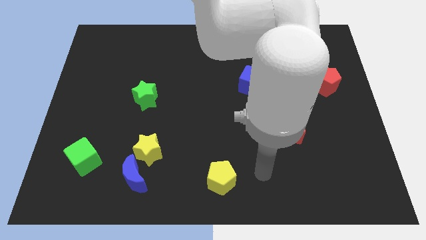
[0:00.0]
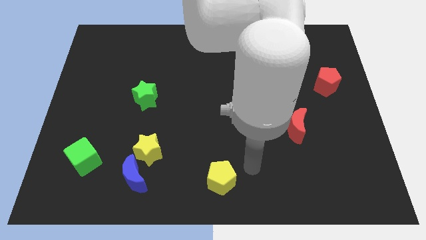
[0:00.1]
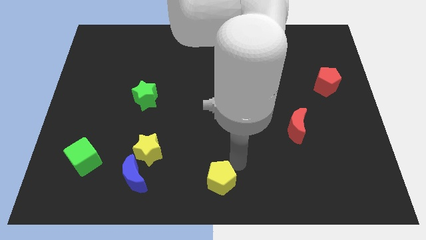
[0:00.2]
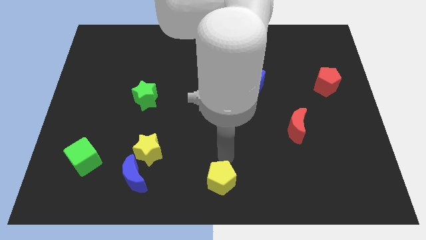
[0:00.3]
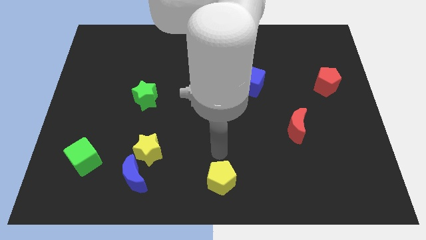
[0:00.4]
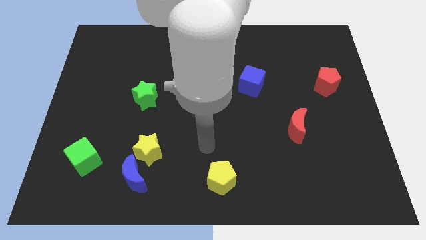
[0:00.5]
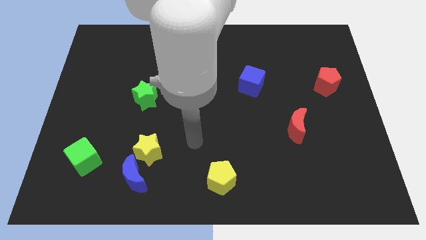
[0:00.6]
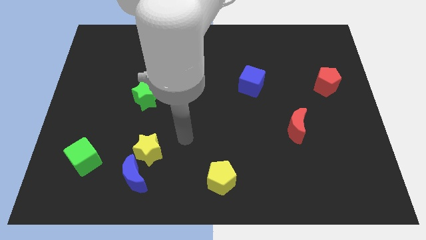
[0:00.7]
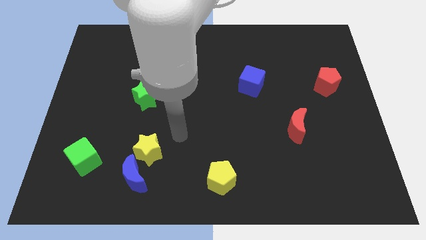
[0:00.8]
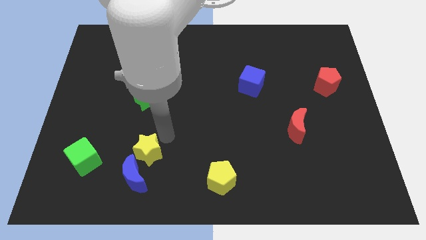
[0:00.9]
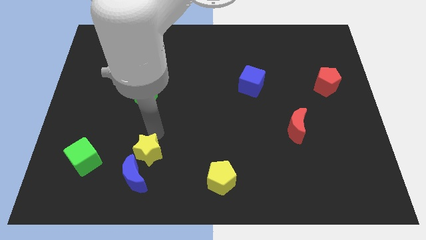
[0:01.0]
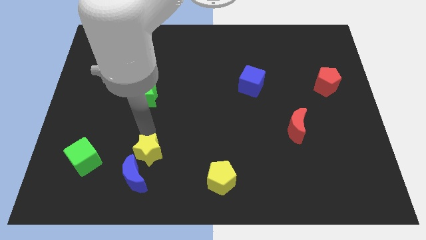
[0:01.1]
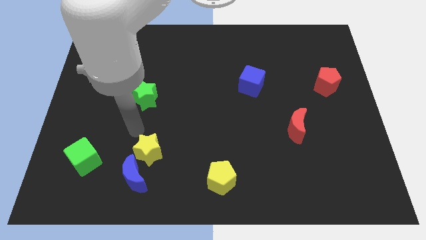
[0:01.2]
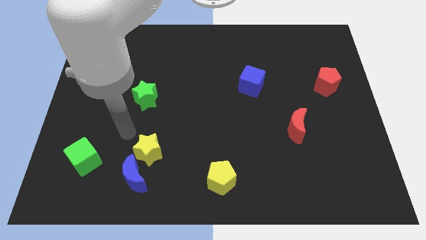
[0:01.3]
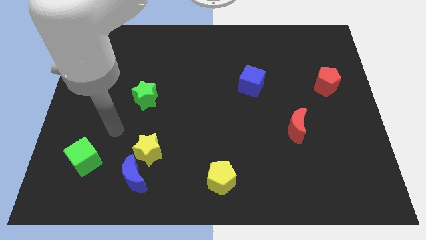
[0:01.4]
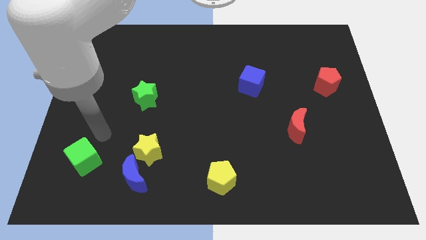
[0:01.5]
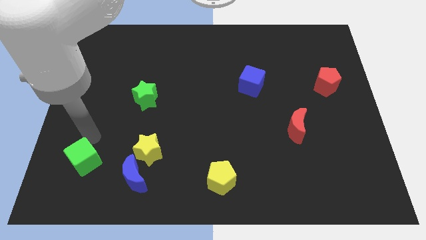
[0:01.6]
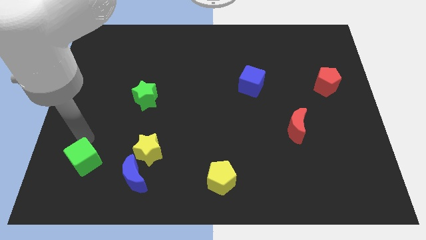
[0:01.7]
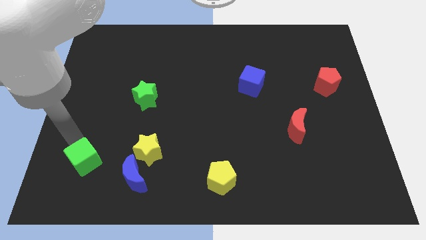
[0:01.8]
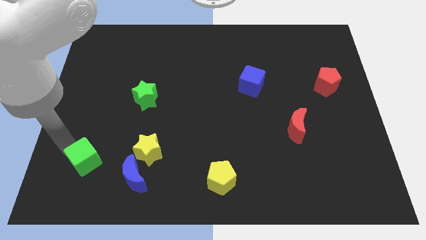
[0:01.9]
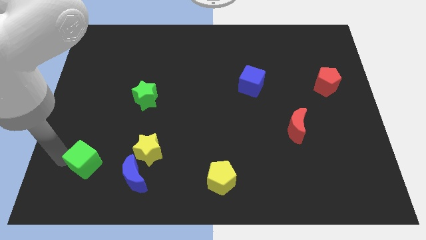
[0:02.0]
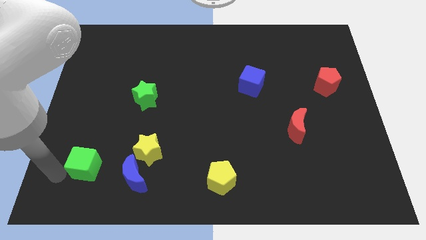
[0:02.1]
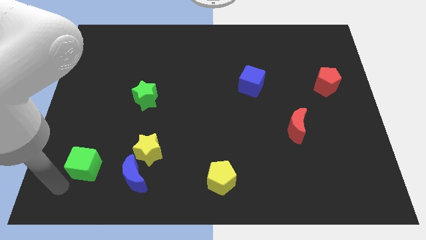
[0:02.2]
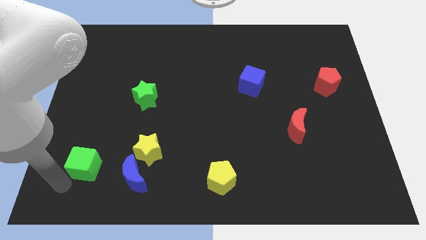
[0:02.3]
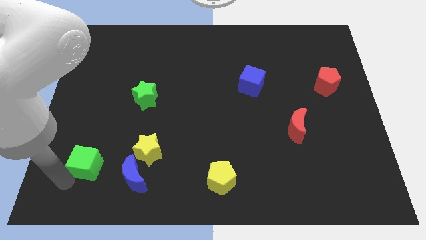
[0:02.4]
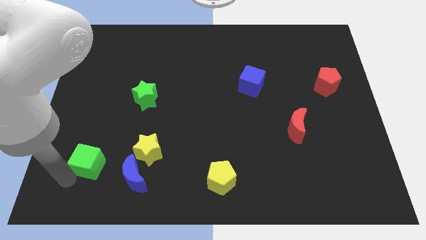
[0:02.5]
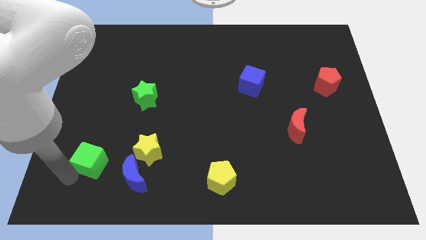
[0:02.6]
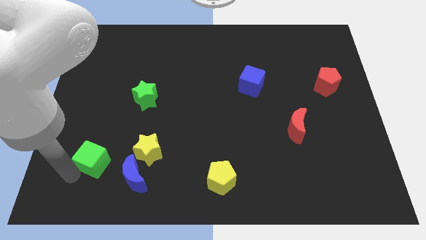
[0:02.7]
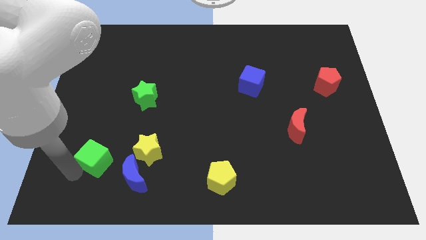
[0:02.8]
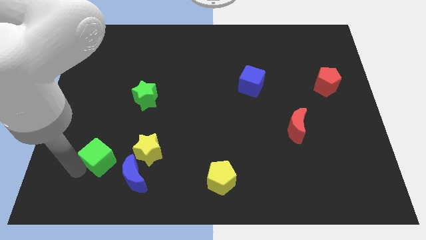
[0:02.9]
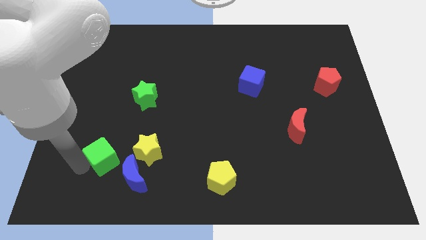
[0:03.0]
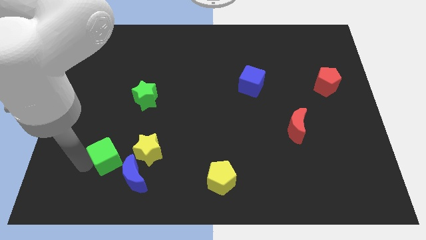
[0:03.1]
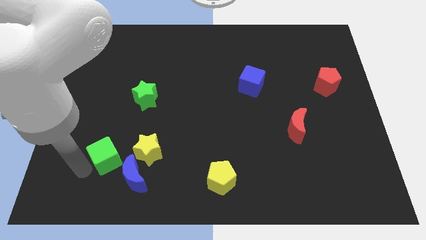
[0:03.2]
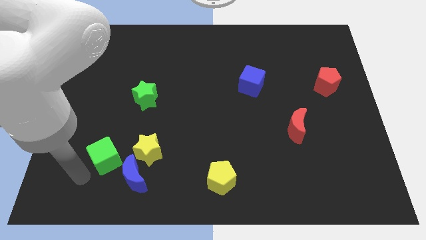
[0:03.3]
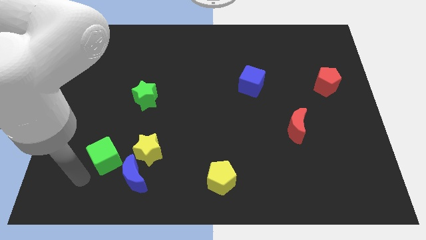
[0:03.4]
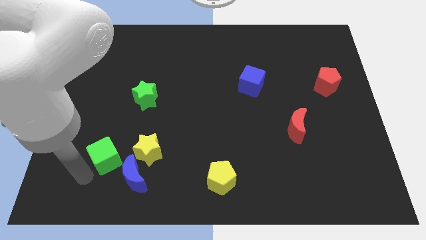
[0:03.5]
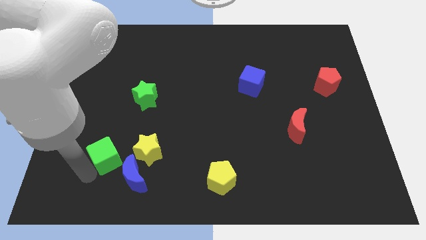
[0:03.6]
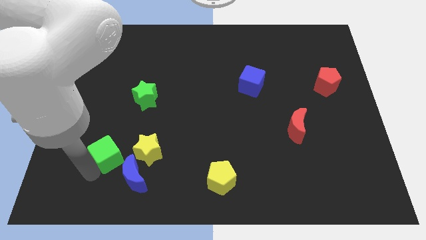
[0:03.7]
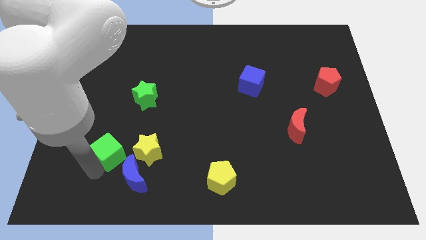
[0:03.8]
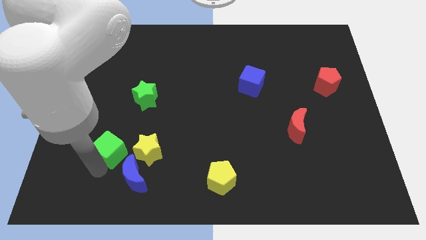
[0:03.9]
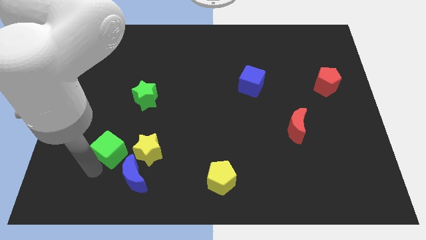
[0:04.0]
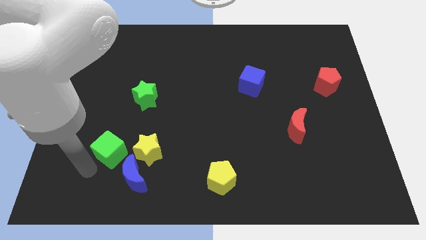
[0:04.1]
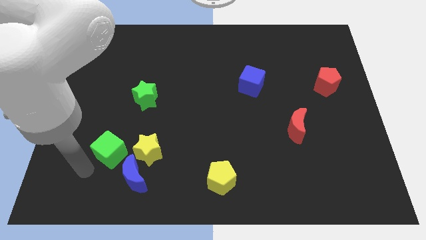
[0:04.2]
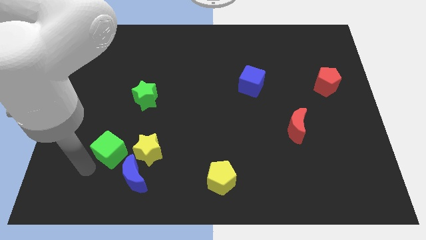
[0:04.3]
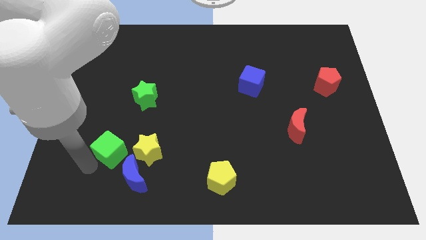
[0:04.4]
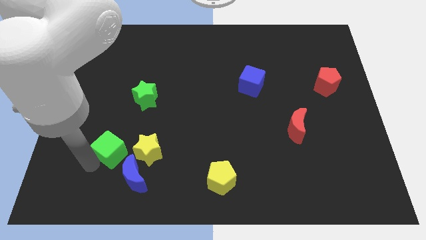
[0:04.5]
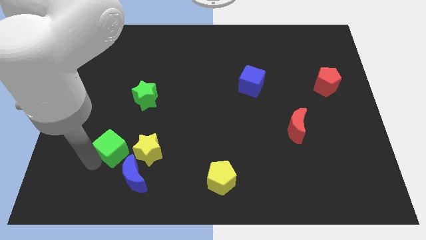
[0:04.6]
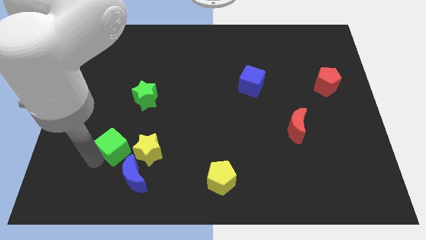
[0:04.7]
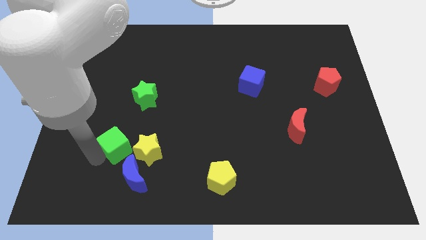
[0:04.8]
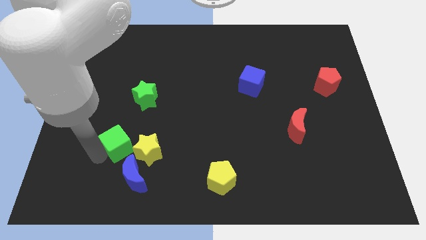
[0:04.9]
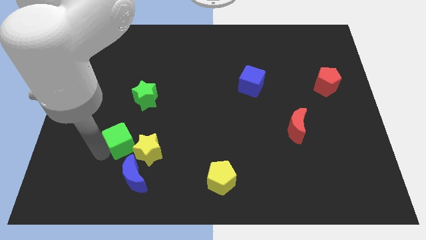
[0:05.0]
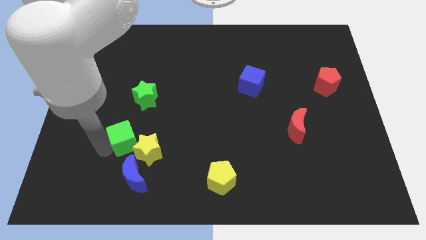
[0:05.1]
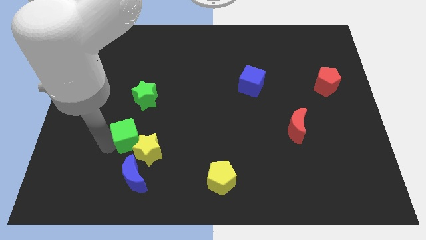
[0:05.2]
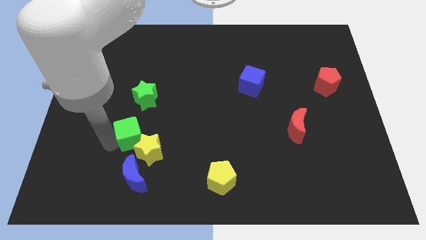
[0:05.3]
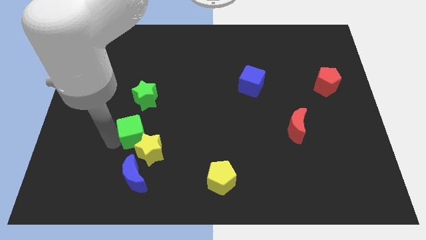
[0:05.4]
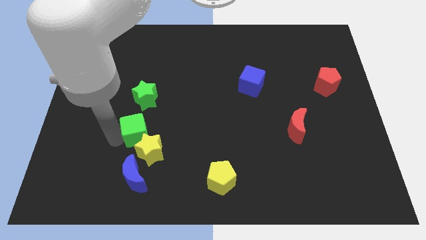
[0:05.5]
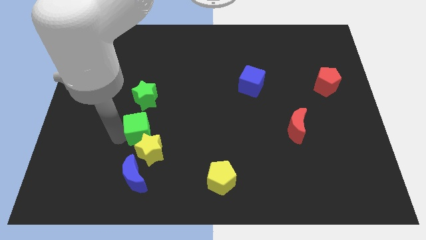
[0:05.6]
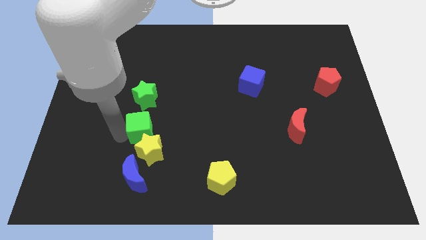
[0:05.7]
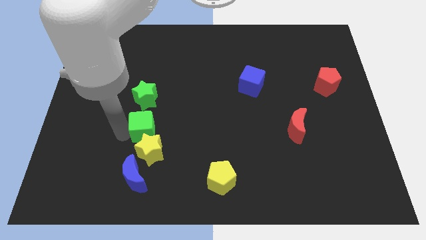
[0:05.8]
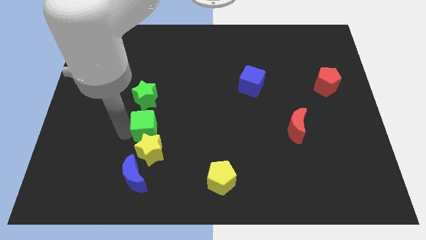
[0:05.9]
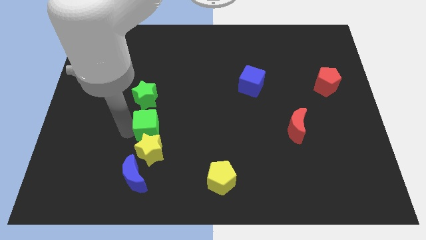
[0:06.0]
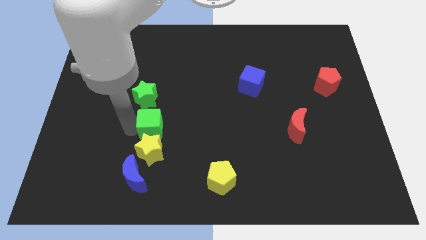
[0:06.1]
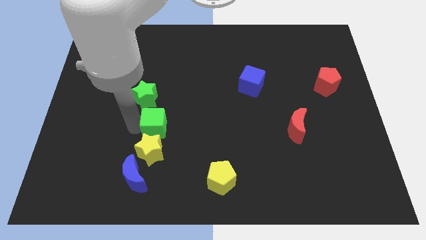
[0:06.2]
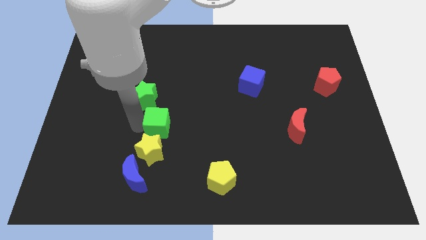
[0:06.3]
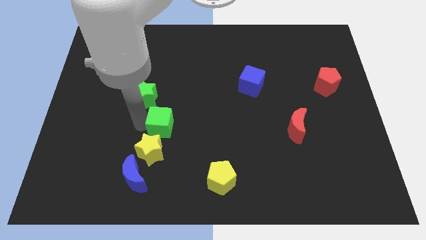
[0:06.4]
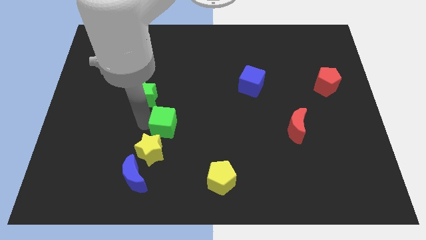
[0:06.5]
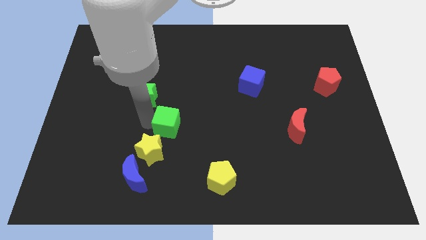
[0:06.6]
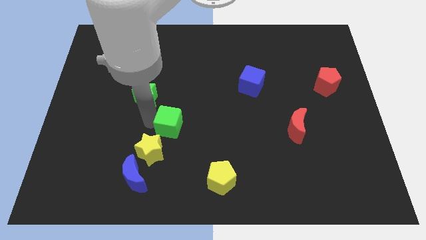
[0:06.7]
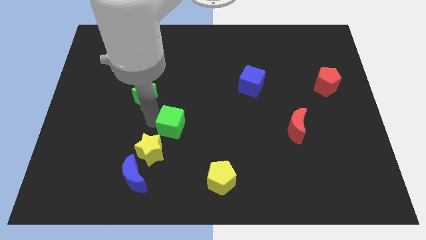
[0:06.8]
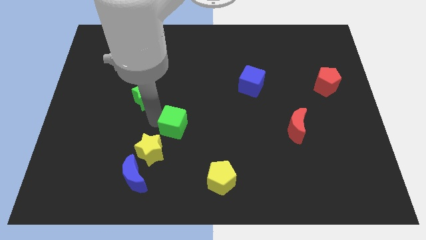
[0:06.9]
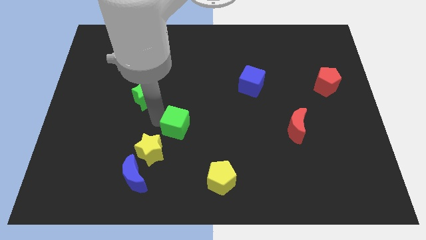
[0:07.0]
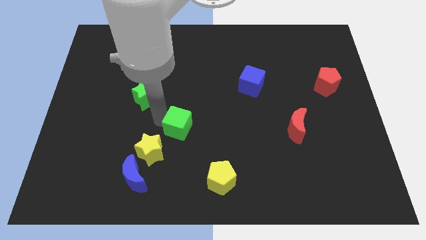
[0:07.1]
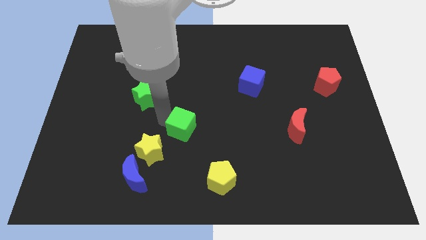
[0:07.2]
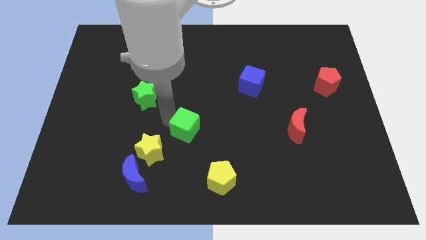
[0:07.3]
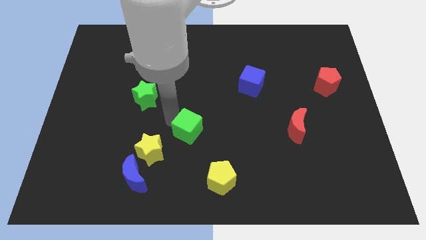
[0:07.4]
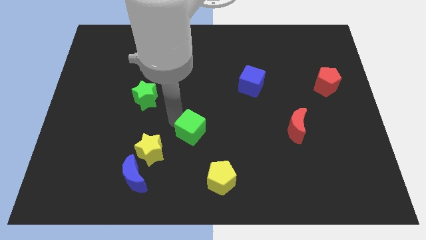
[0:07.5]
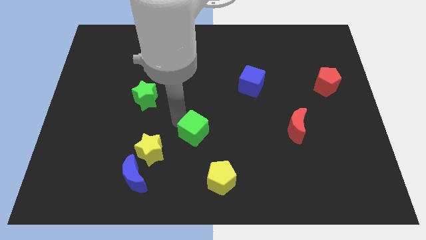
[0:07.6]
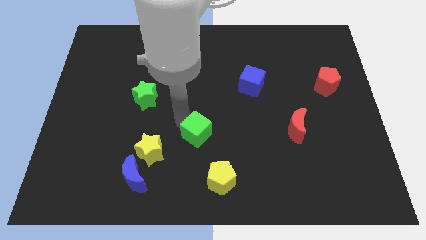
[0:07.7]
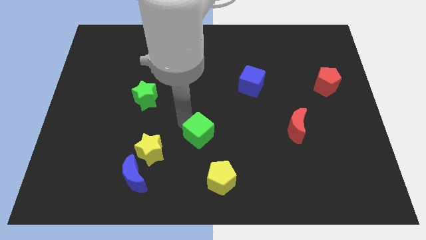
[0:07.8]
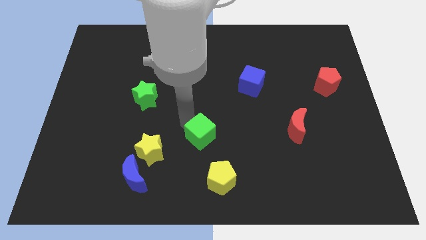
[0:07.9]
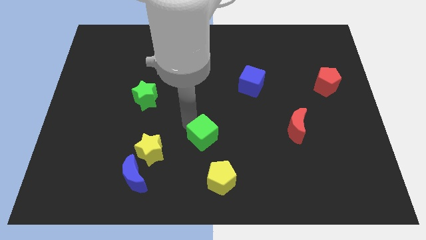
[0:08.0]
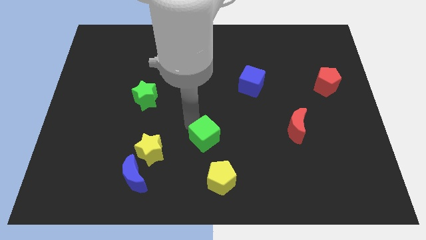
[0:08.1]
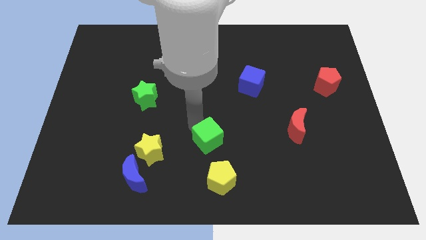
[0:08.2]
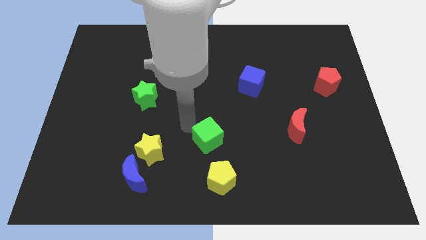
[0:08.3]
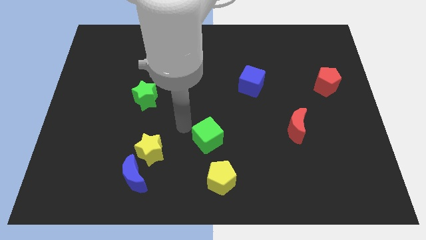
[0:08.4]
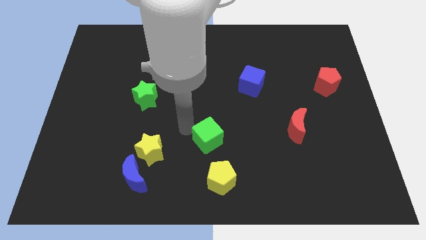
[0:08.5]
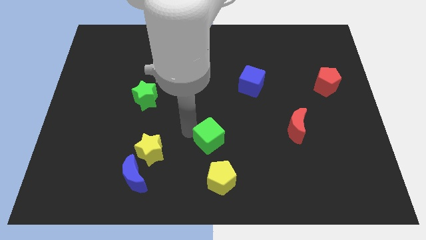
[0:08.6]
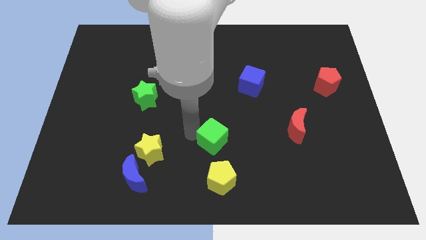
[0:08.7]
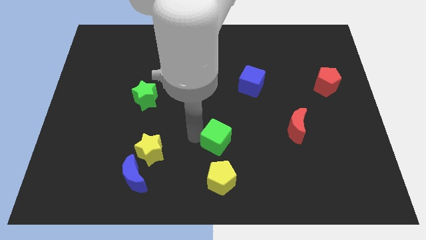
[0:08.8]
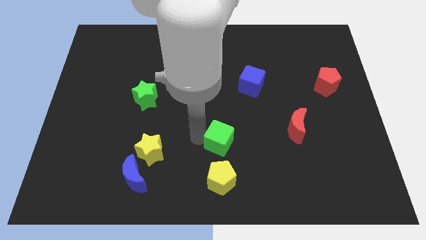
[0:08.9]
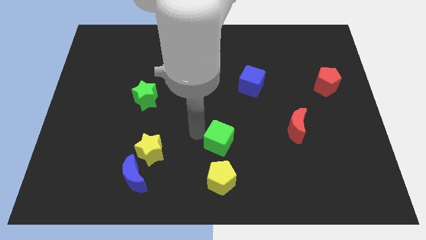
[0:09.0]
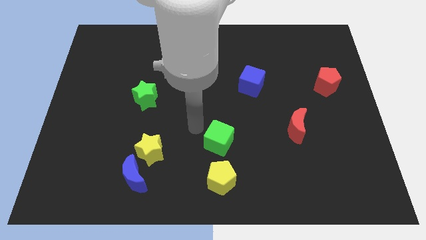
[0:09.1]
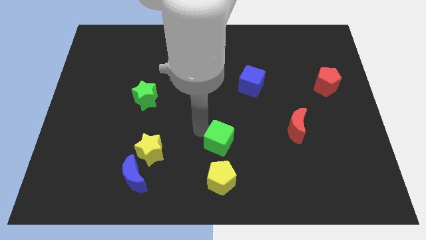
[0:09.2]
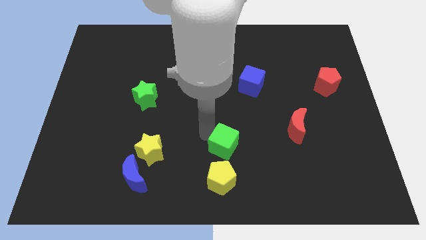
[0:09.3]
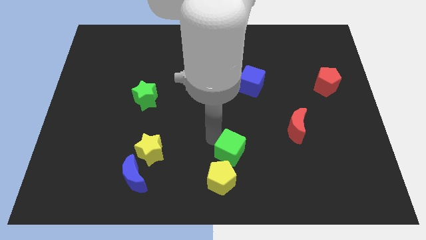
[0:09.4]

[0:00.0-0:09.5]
move the green cube to the top right side of the yellow pentagon
